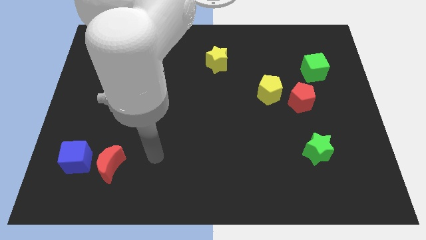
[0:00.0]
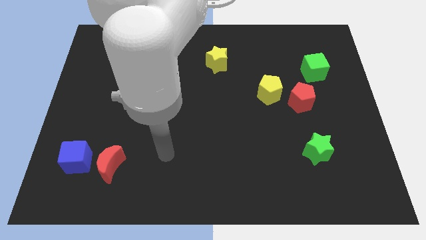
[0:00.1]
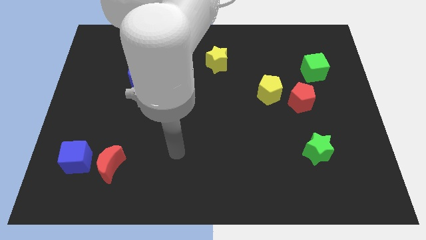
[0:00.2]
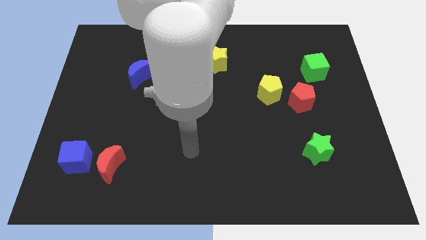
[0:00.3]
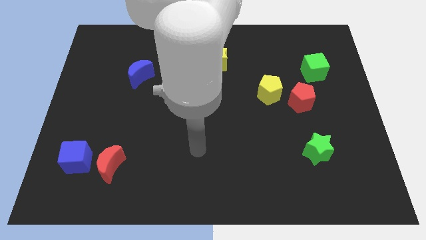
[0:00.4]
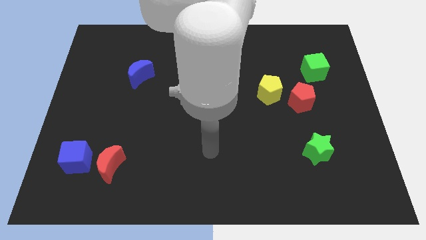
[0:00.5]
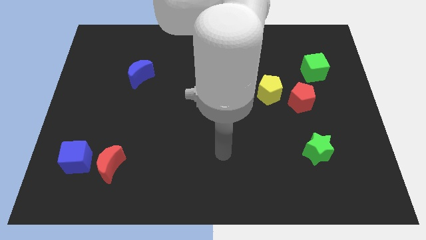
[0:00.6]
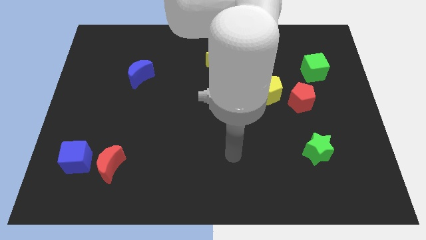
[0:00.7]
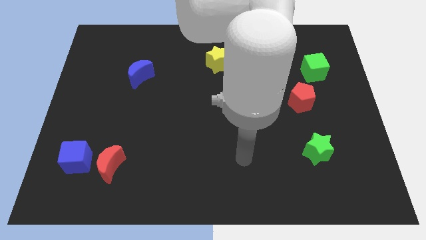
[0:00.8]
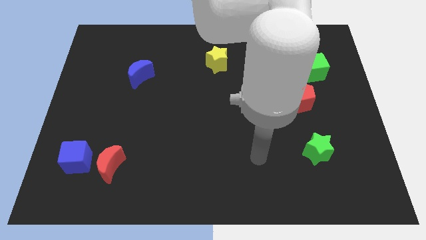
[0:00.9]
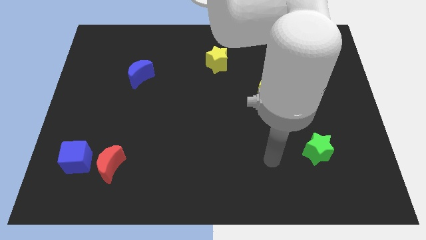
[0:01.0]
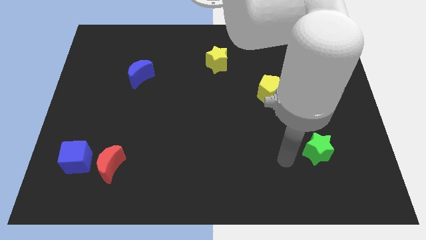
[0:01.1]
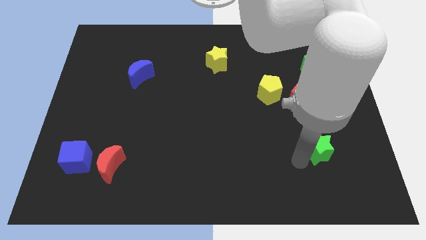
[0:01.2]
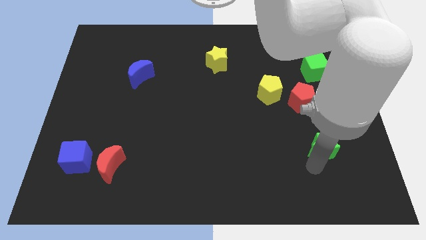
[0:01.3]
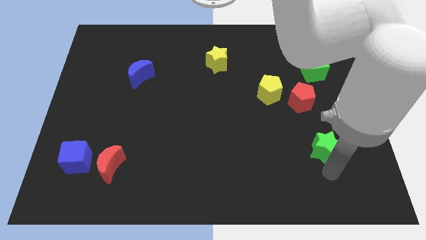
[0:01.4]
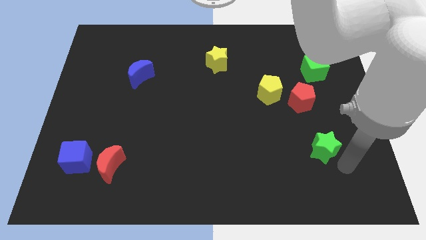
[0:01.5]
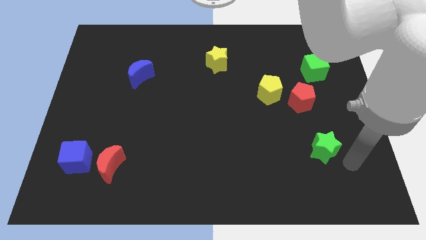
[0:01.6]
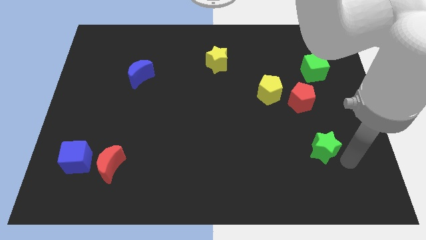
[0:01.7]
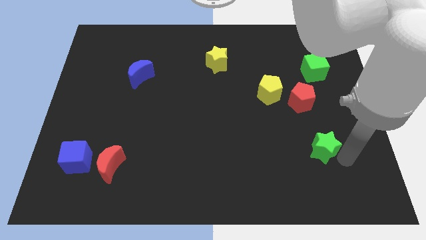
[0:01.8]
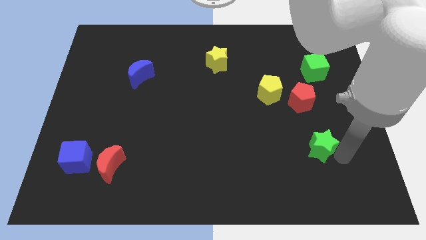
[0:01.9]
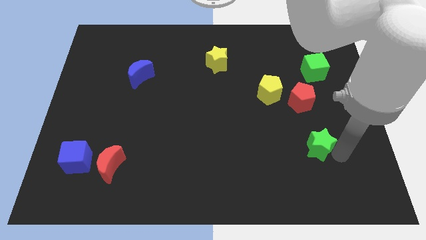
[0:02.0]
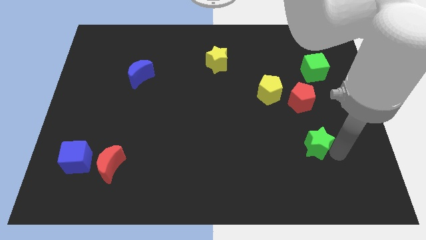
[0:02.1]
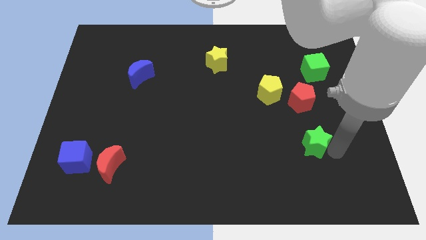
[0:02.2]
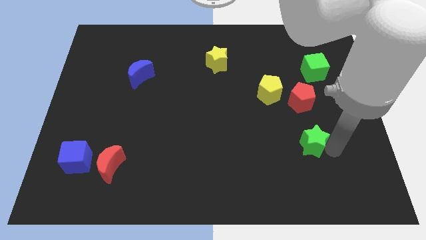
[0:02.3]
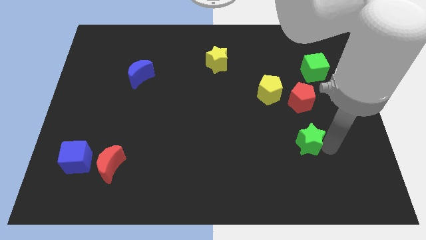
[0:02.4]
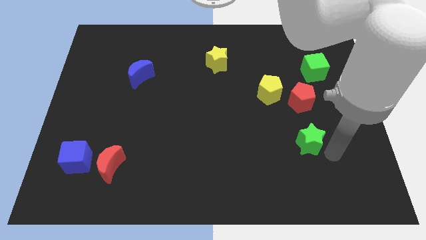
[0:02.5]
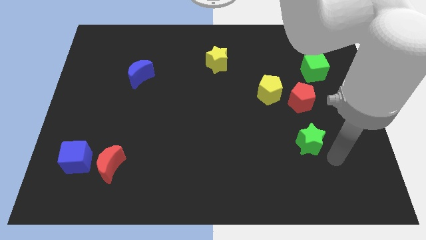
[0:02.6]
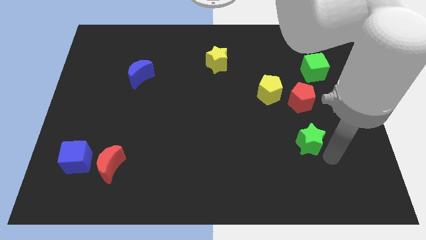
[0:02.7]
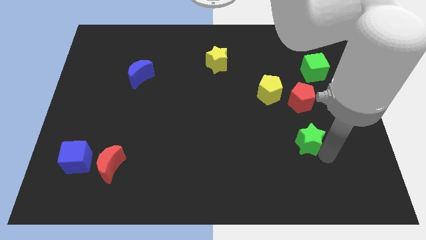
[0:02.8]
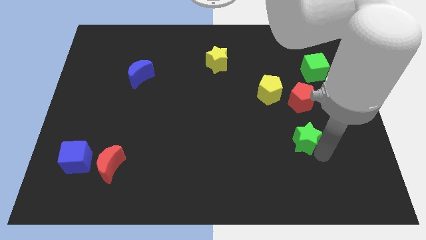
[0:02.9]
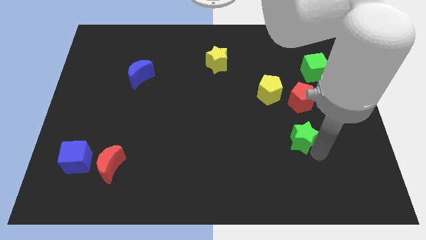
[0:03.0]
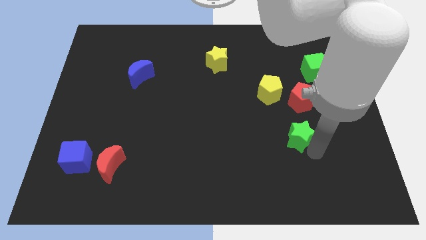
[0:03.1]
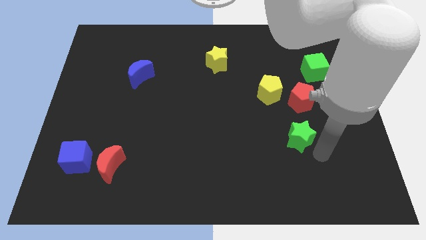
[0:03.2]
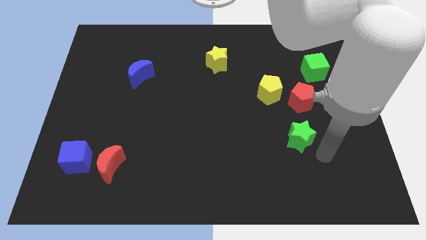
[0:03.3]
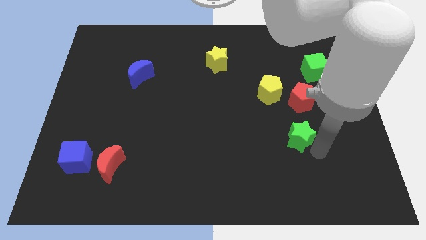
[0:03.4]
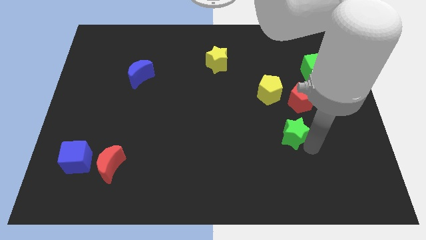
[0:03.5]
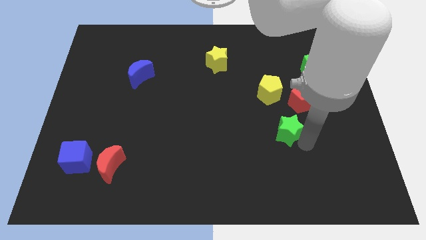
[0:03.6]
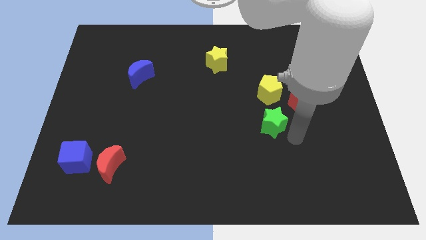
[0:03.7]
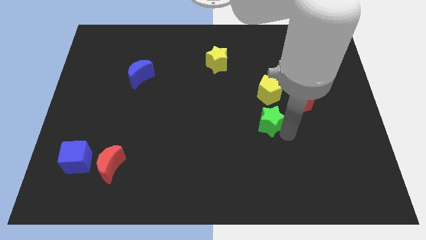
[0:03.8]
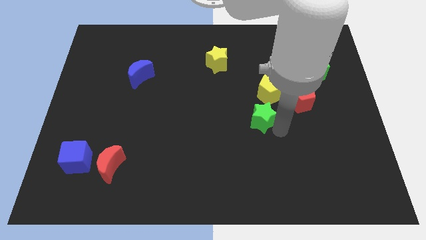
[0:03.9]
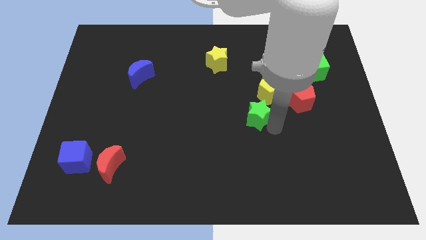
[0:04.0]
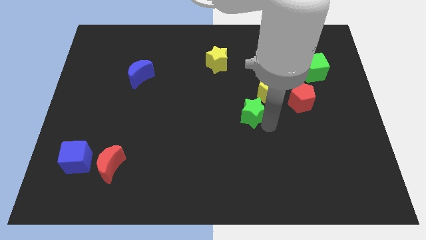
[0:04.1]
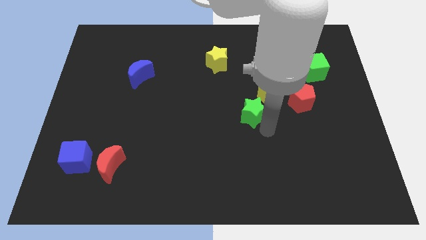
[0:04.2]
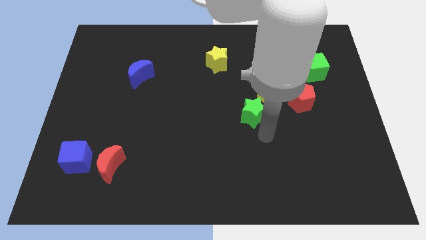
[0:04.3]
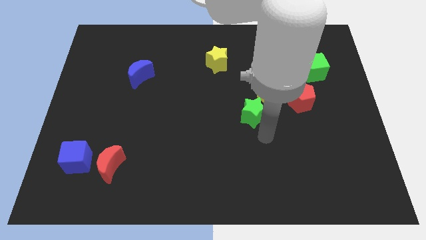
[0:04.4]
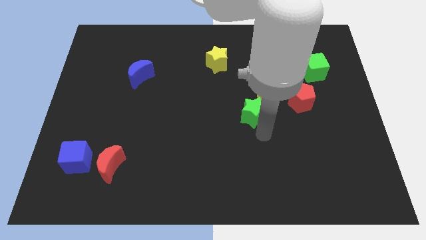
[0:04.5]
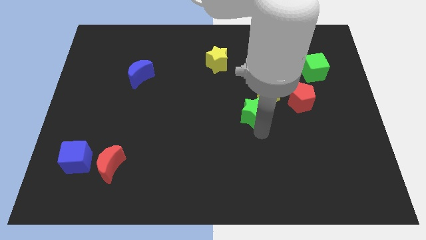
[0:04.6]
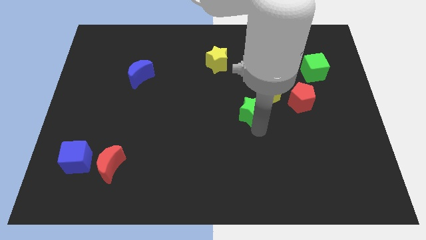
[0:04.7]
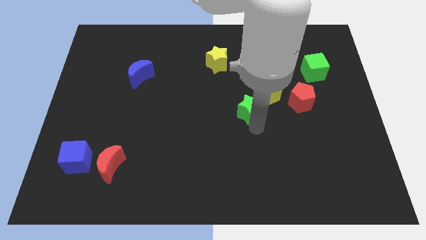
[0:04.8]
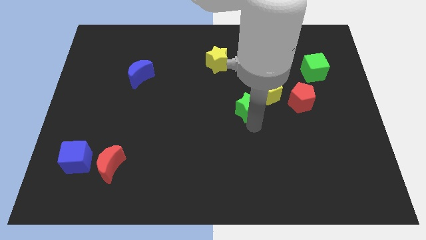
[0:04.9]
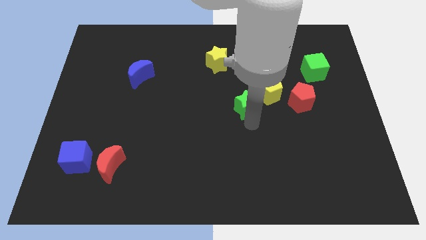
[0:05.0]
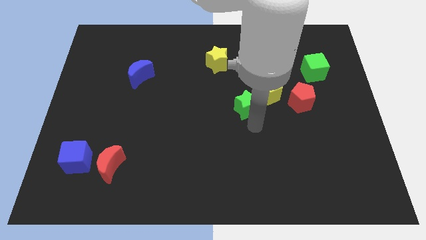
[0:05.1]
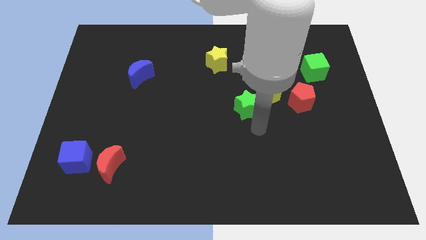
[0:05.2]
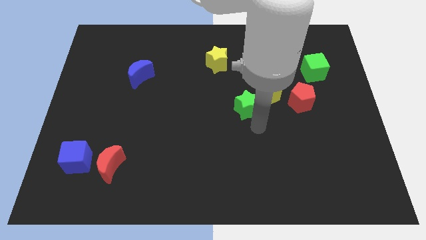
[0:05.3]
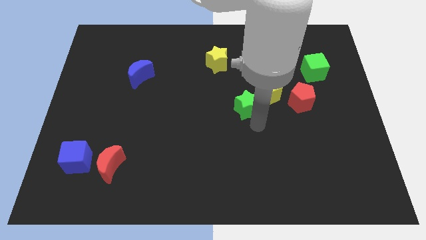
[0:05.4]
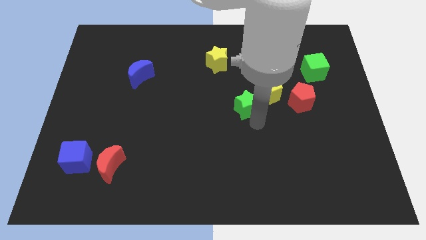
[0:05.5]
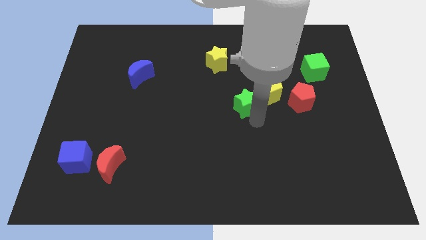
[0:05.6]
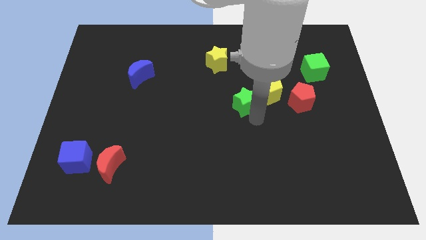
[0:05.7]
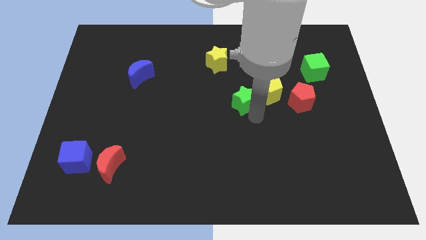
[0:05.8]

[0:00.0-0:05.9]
move the green star up and then left

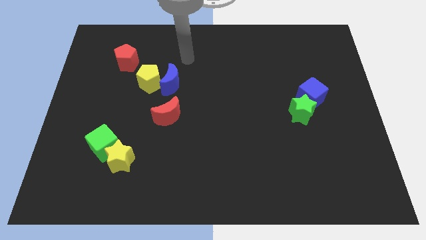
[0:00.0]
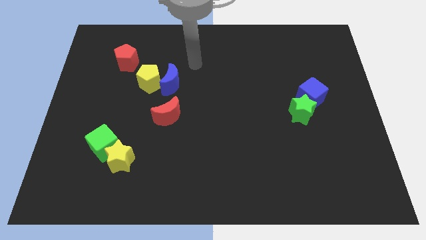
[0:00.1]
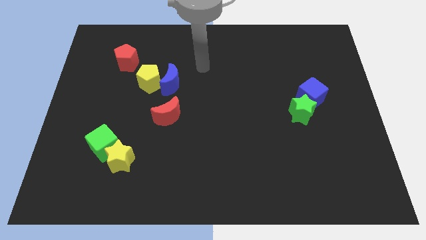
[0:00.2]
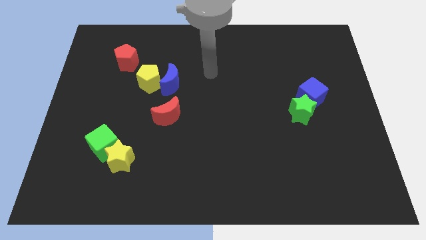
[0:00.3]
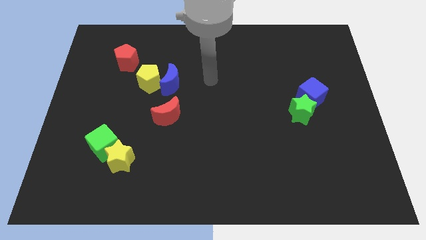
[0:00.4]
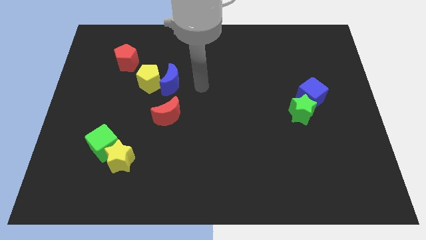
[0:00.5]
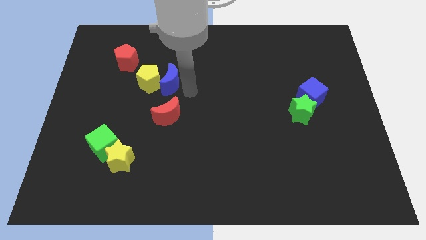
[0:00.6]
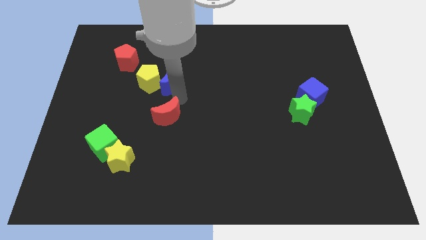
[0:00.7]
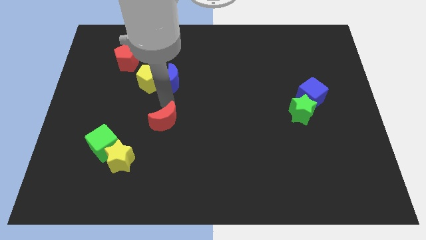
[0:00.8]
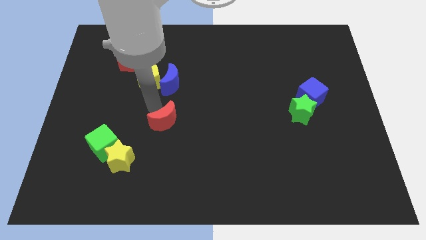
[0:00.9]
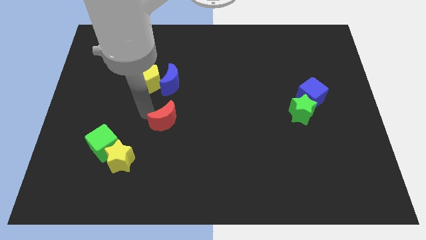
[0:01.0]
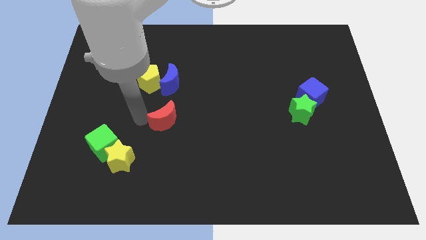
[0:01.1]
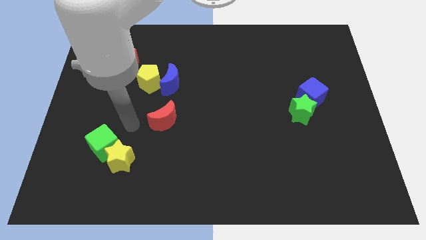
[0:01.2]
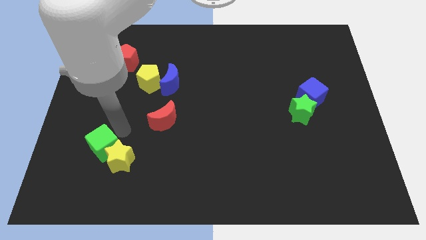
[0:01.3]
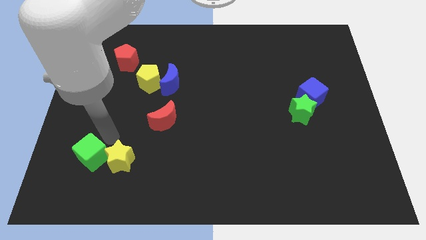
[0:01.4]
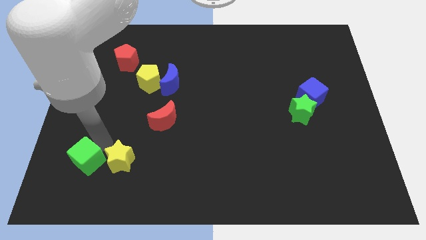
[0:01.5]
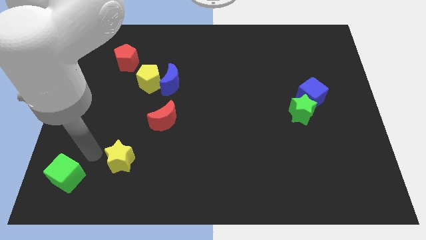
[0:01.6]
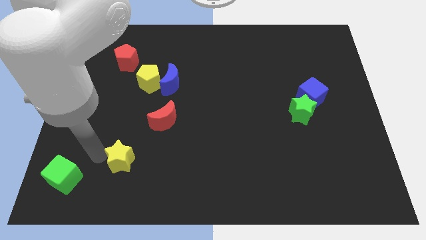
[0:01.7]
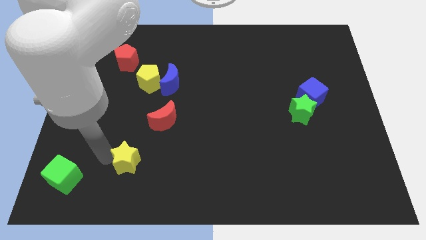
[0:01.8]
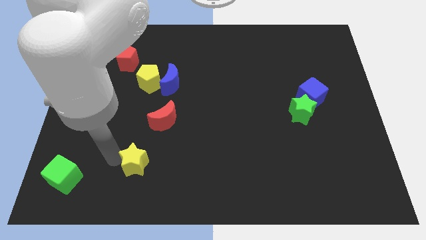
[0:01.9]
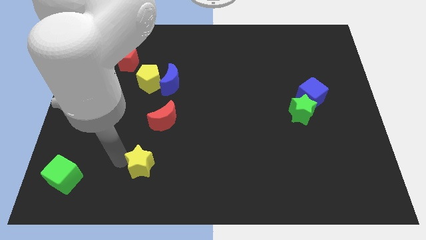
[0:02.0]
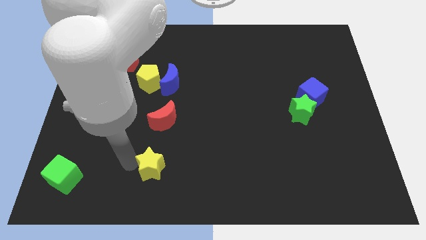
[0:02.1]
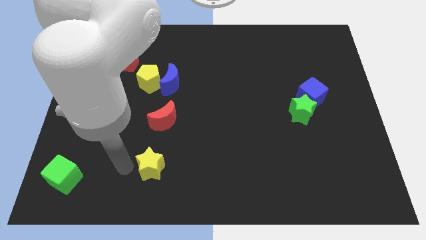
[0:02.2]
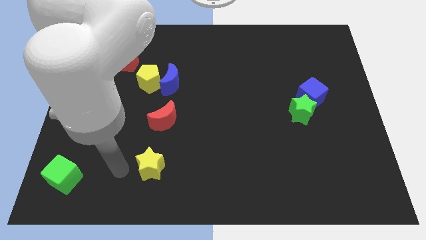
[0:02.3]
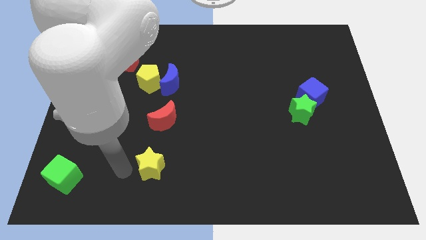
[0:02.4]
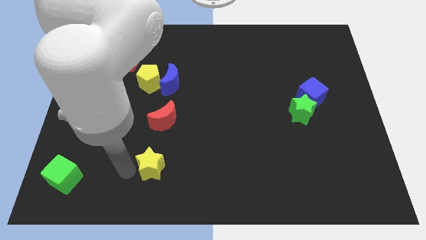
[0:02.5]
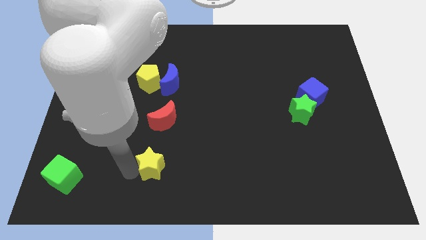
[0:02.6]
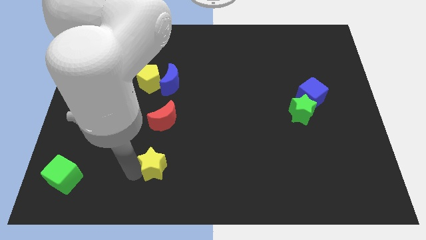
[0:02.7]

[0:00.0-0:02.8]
move the yellow star slightly right
